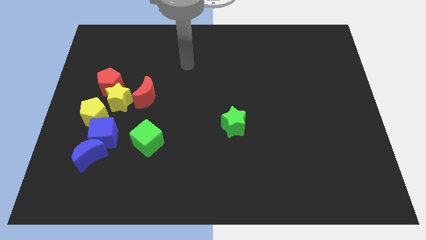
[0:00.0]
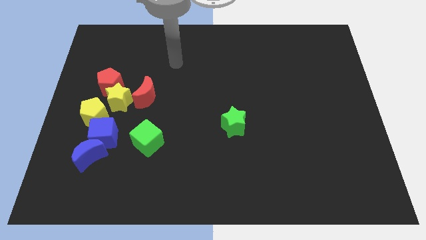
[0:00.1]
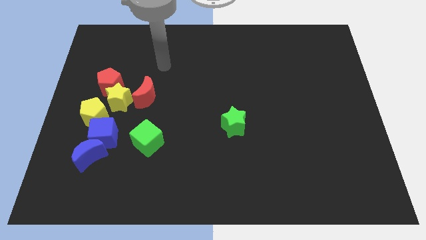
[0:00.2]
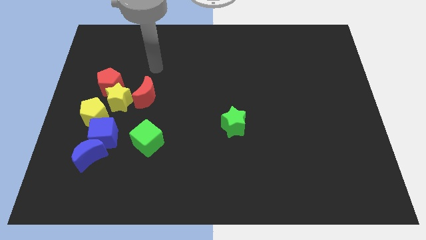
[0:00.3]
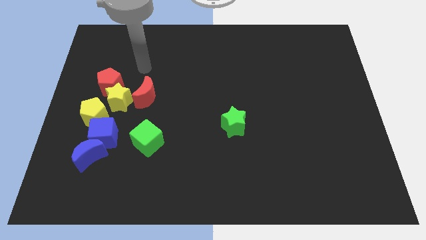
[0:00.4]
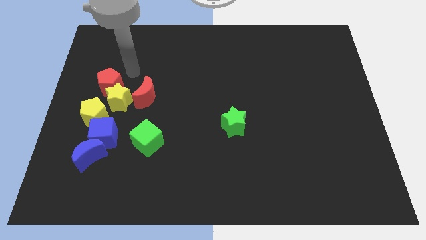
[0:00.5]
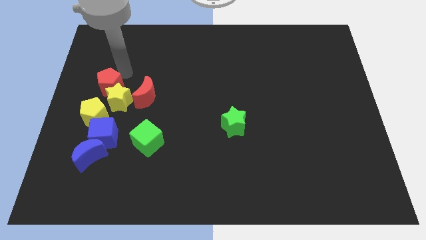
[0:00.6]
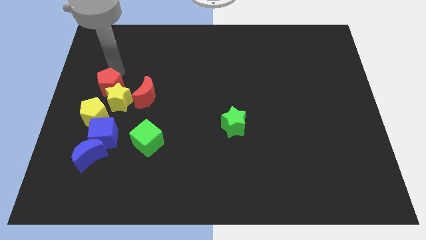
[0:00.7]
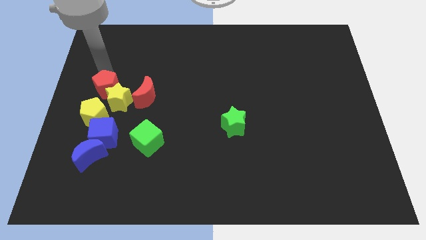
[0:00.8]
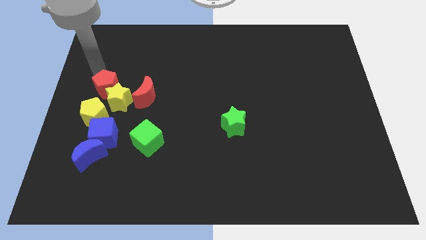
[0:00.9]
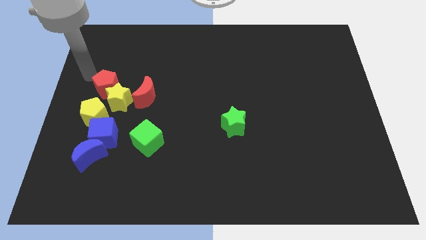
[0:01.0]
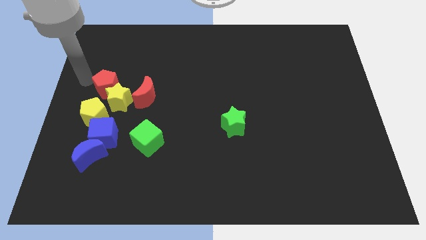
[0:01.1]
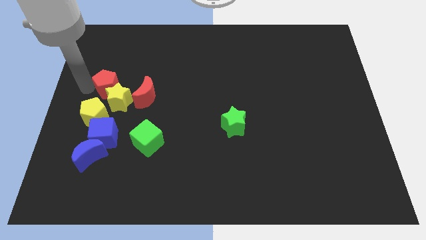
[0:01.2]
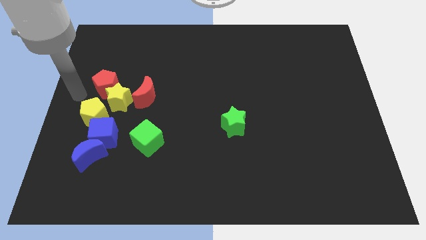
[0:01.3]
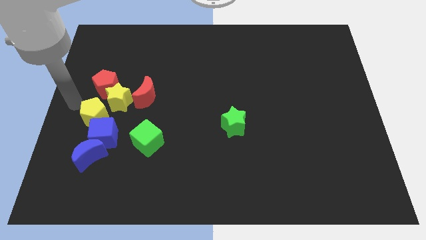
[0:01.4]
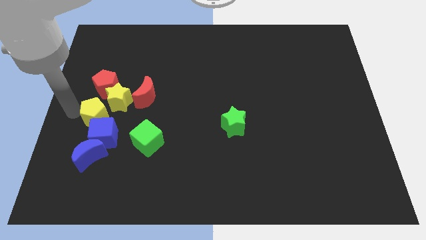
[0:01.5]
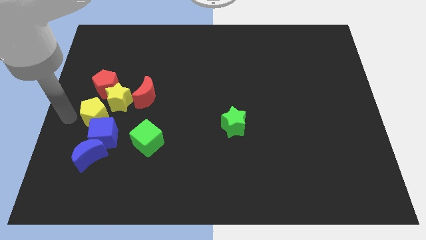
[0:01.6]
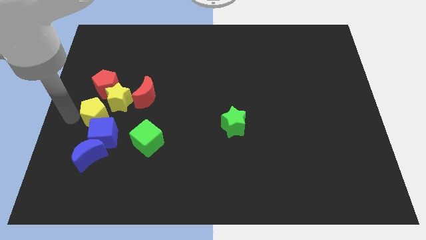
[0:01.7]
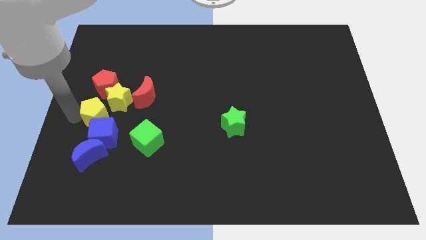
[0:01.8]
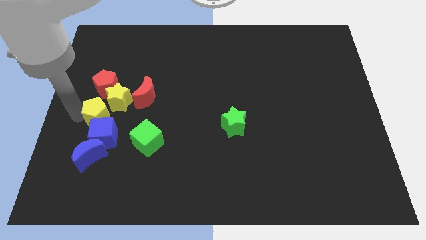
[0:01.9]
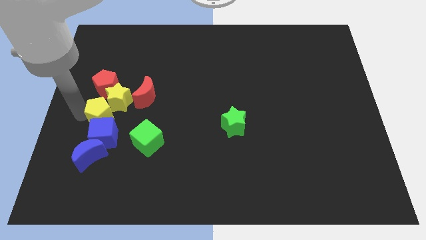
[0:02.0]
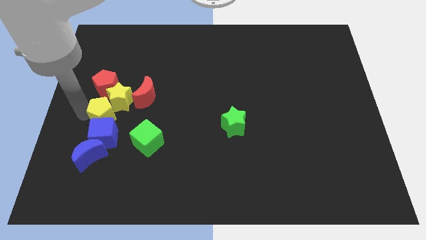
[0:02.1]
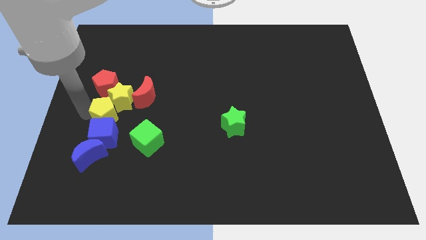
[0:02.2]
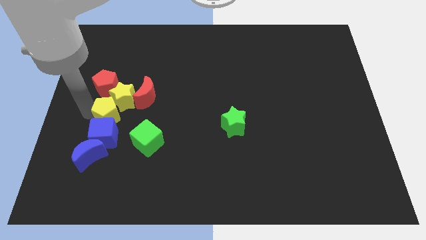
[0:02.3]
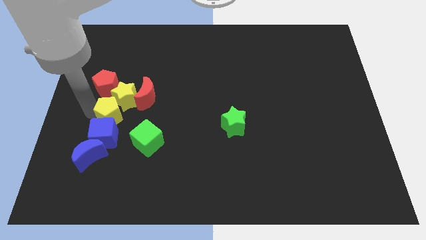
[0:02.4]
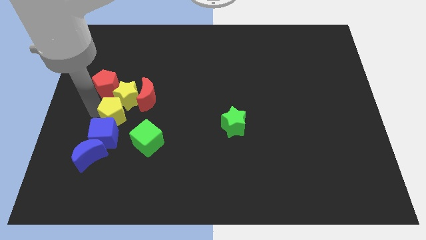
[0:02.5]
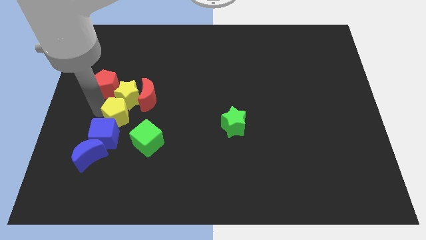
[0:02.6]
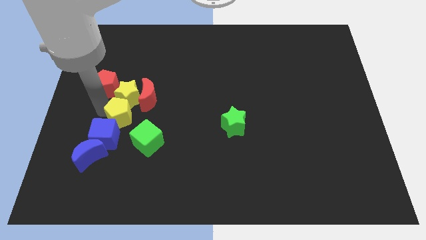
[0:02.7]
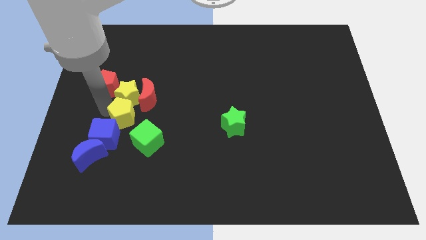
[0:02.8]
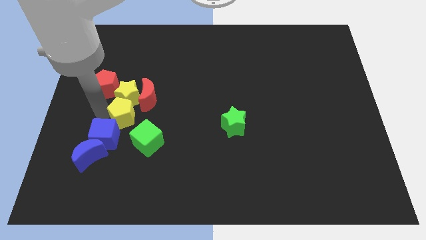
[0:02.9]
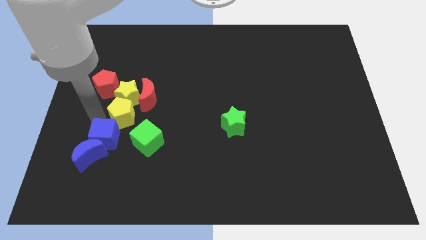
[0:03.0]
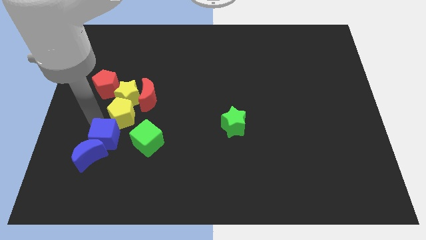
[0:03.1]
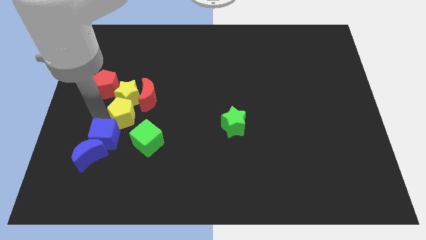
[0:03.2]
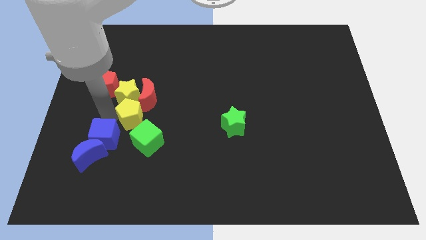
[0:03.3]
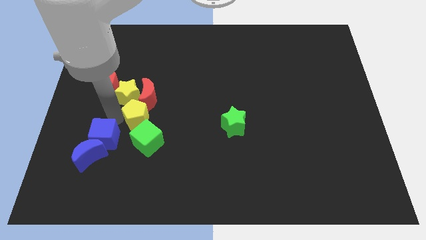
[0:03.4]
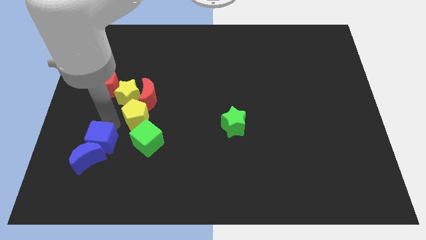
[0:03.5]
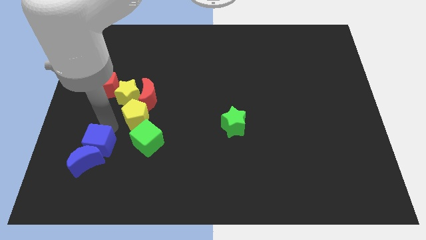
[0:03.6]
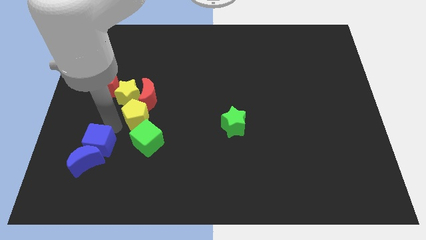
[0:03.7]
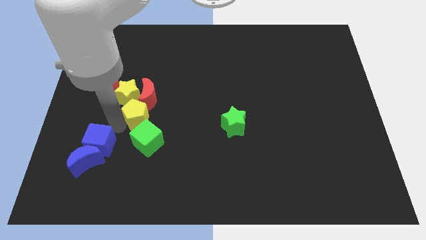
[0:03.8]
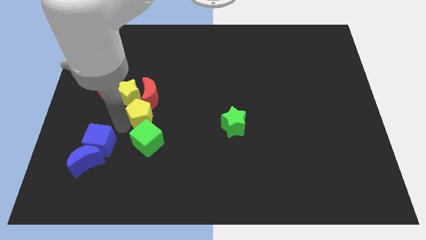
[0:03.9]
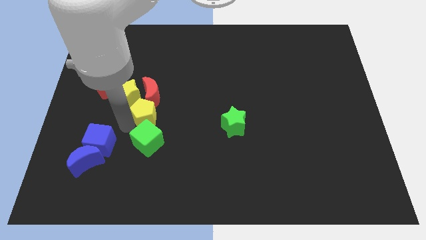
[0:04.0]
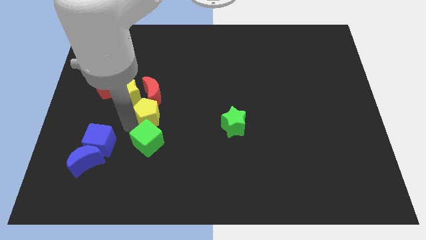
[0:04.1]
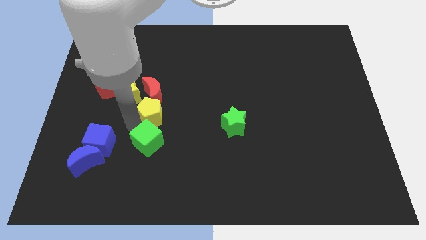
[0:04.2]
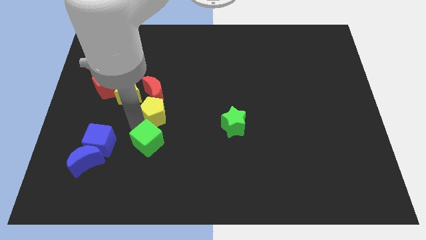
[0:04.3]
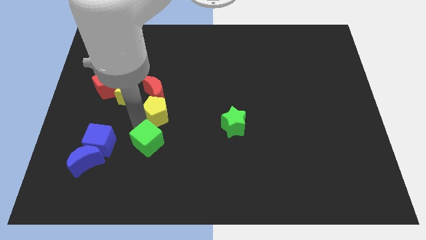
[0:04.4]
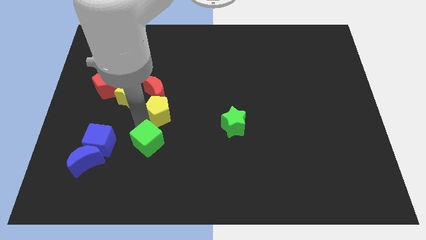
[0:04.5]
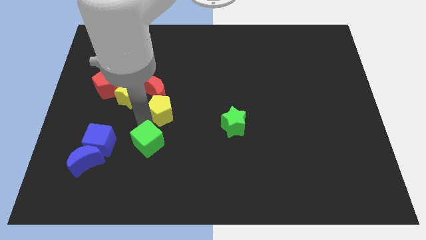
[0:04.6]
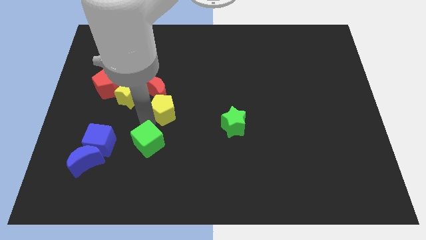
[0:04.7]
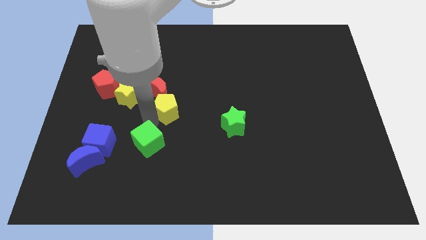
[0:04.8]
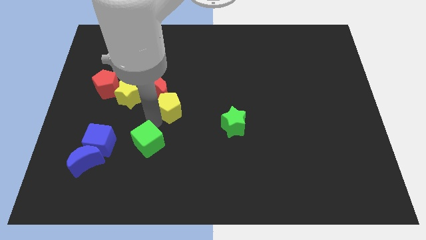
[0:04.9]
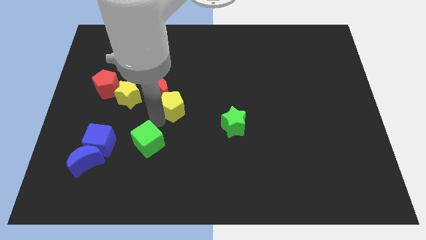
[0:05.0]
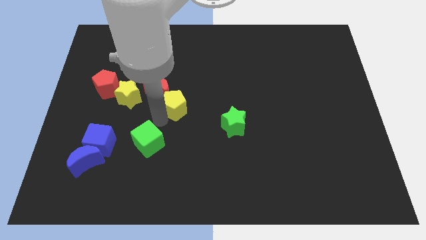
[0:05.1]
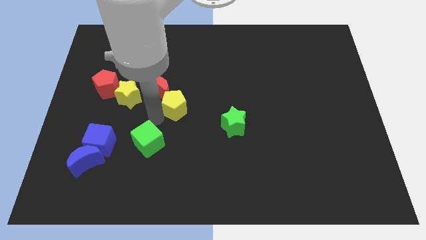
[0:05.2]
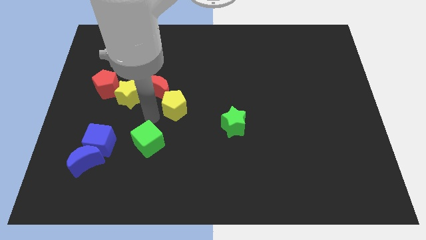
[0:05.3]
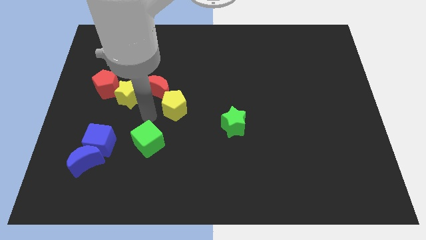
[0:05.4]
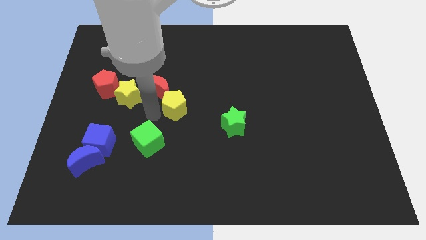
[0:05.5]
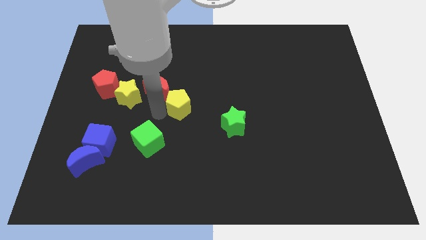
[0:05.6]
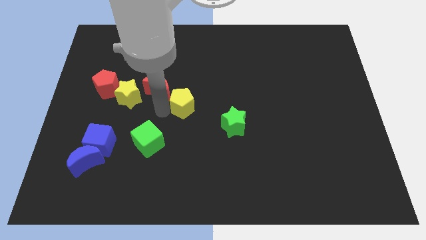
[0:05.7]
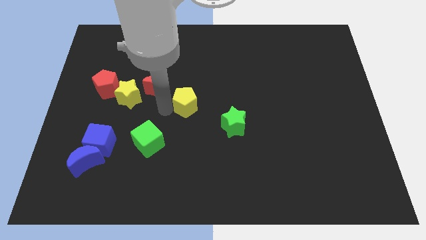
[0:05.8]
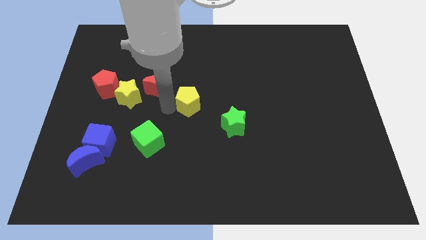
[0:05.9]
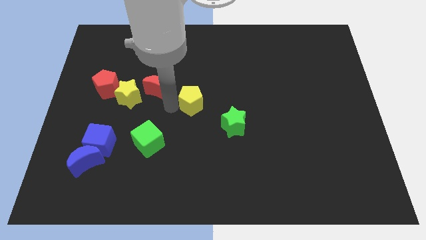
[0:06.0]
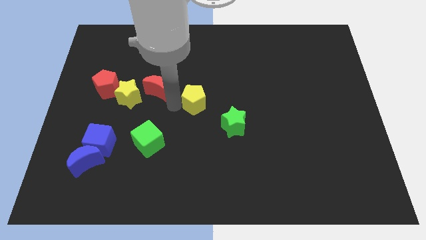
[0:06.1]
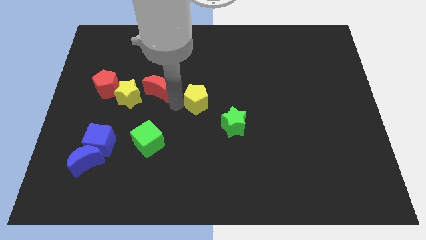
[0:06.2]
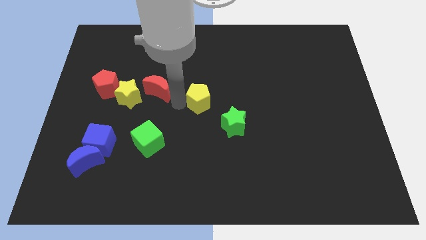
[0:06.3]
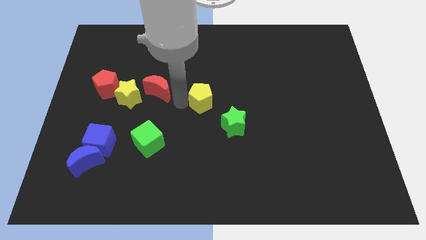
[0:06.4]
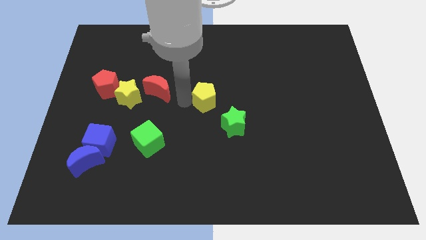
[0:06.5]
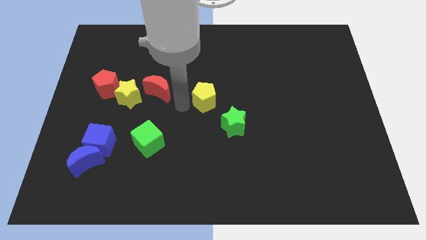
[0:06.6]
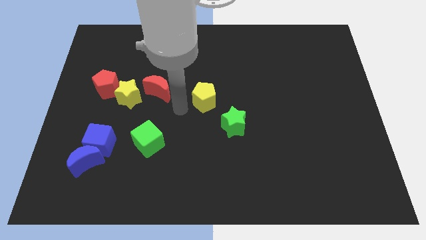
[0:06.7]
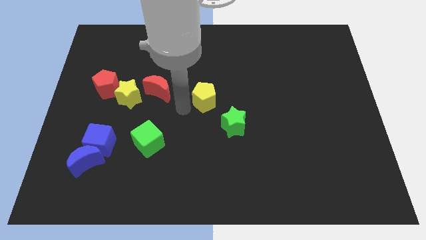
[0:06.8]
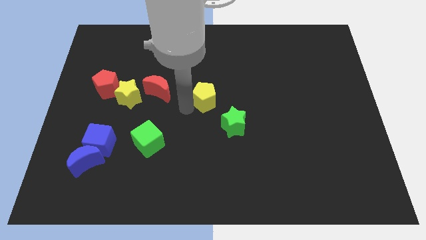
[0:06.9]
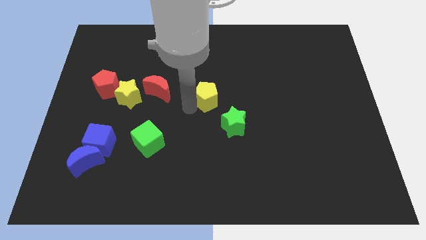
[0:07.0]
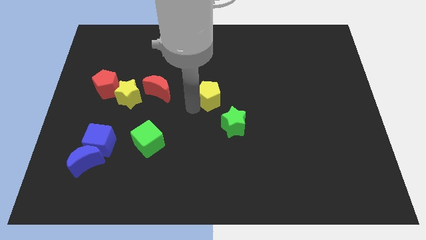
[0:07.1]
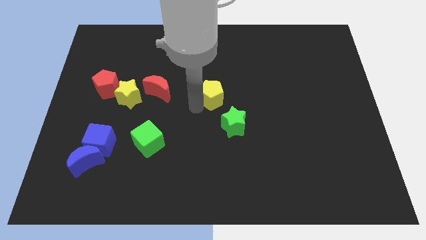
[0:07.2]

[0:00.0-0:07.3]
move the yellow pentagon to the top side of the green star

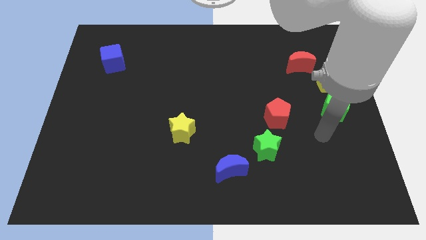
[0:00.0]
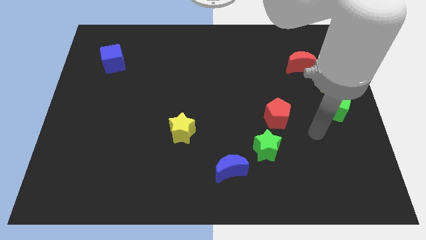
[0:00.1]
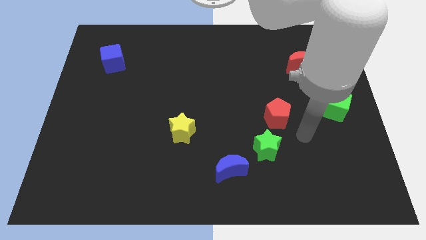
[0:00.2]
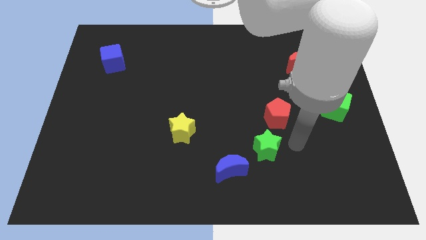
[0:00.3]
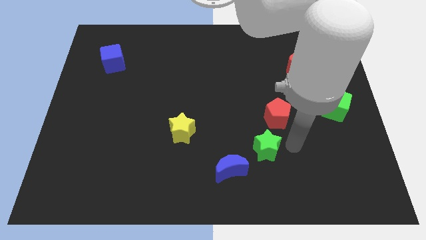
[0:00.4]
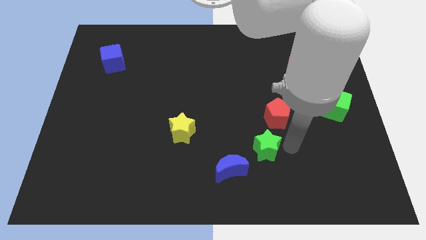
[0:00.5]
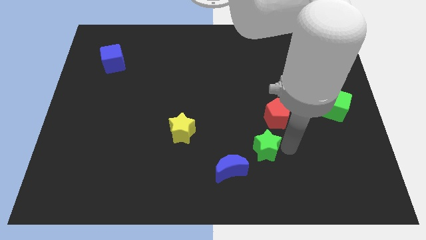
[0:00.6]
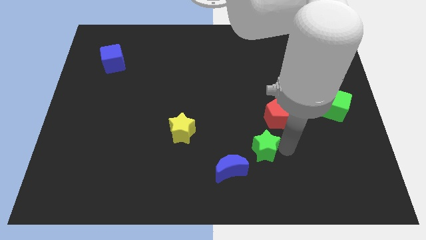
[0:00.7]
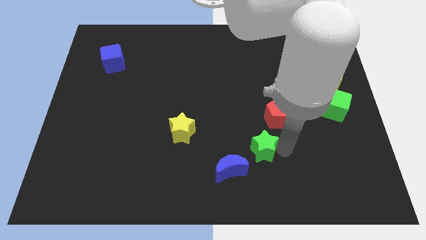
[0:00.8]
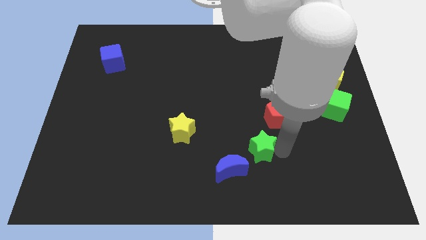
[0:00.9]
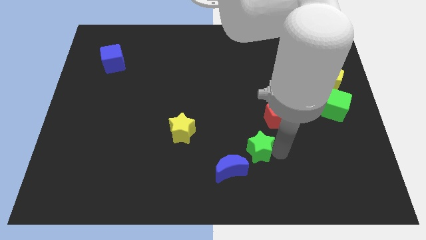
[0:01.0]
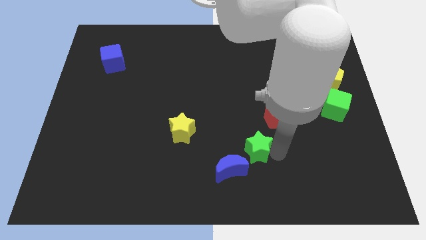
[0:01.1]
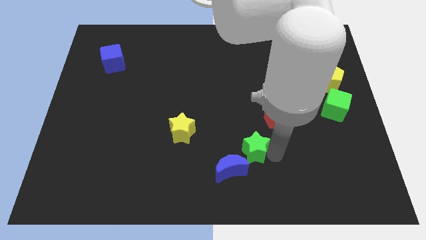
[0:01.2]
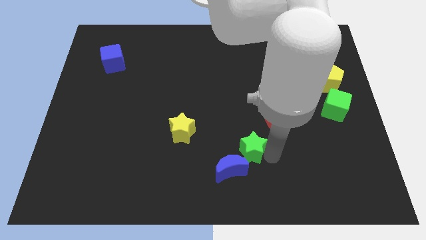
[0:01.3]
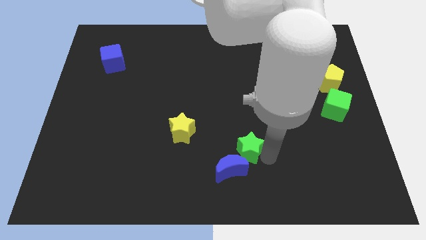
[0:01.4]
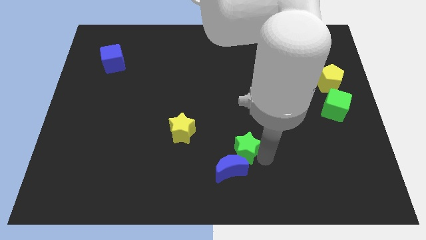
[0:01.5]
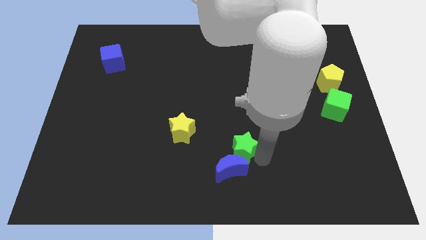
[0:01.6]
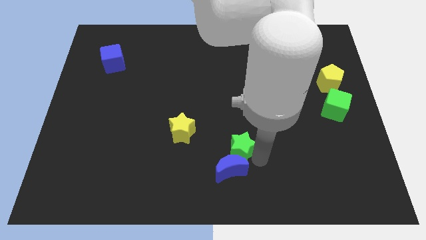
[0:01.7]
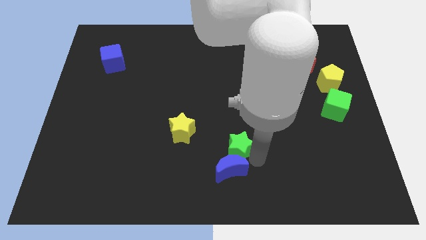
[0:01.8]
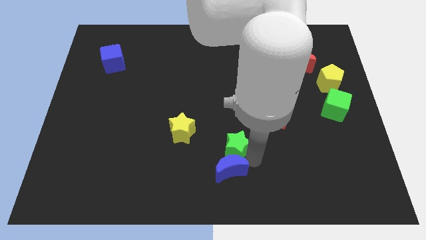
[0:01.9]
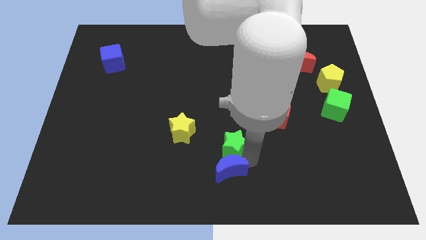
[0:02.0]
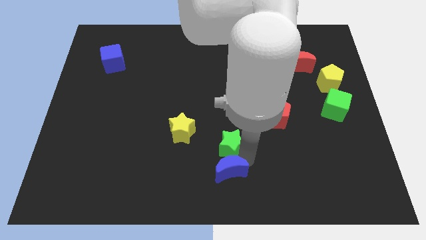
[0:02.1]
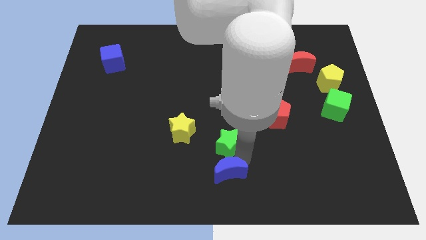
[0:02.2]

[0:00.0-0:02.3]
slide the green star to the bottom right side of the yellow star
